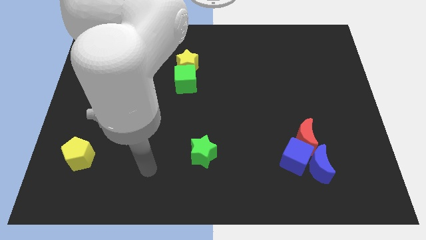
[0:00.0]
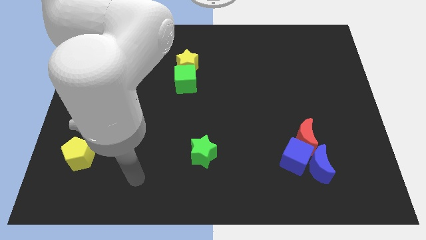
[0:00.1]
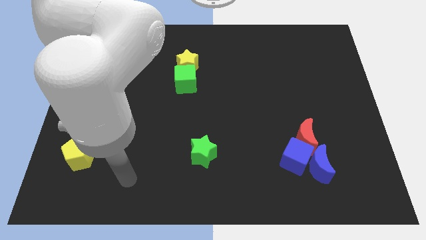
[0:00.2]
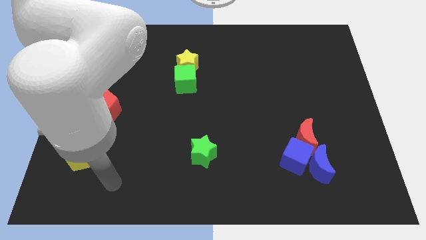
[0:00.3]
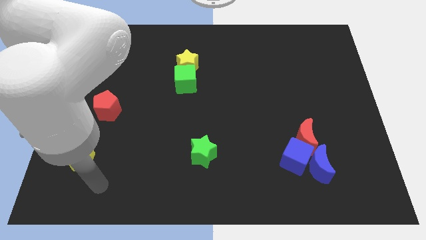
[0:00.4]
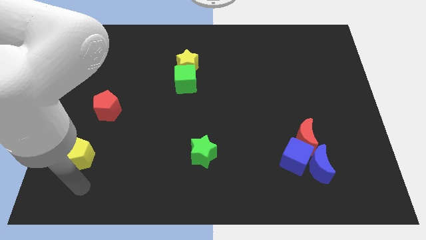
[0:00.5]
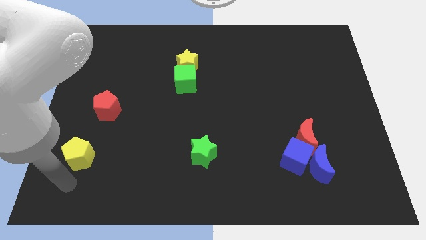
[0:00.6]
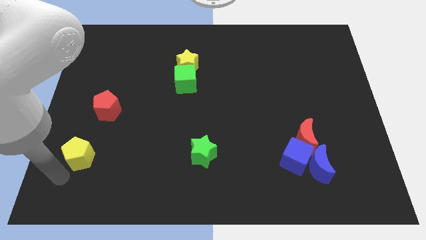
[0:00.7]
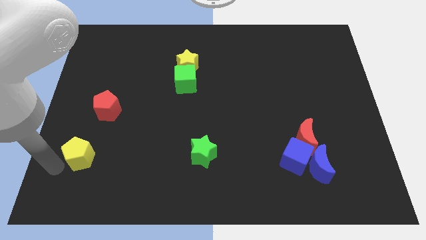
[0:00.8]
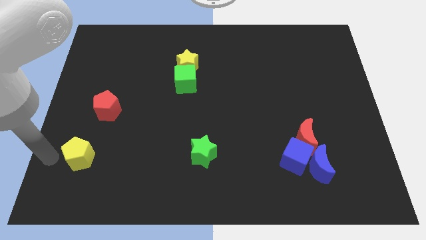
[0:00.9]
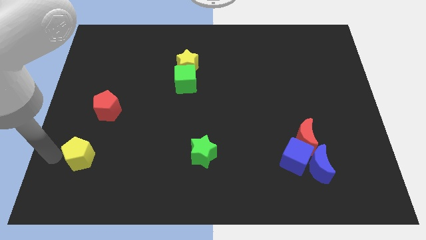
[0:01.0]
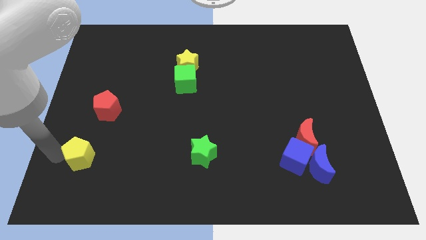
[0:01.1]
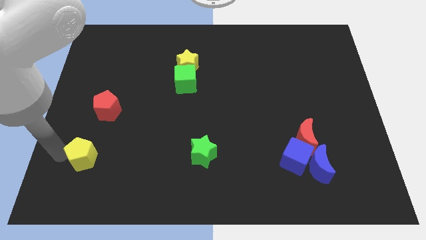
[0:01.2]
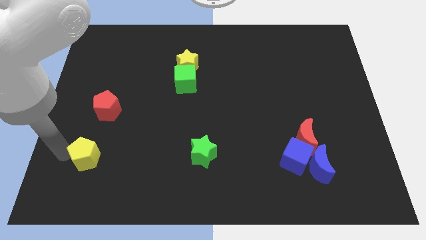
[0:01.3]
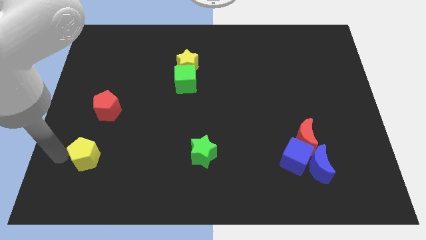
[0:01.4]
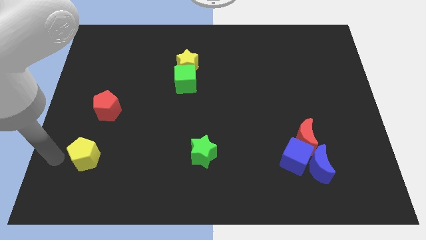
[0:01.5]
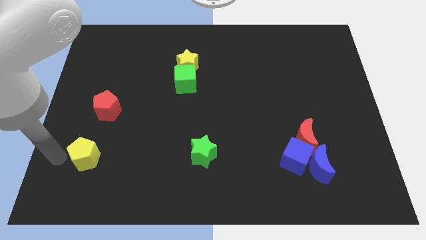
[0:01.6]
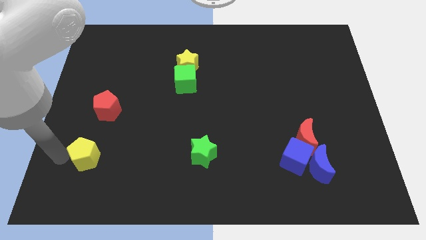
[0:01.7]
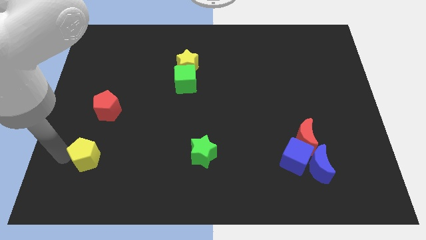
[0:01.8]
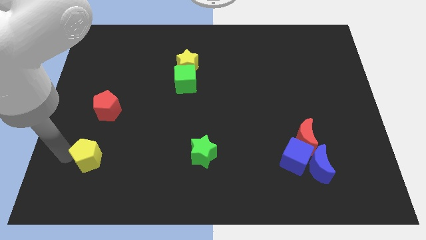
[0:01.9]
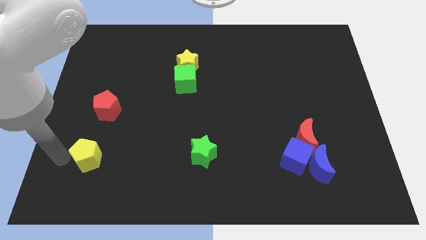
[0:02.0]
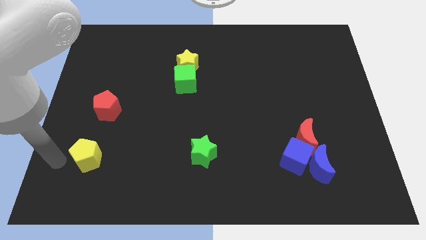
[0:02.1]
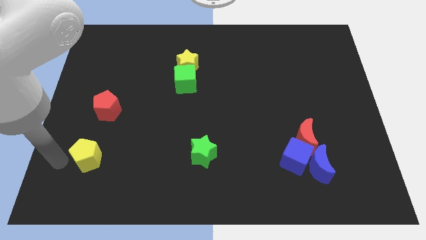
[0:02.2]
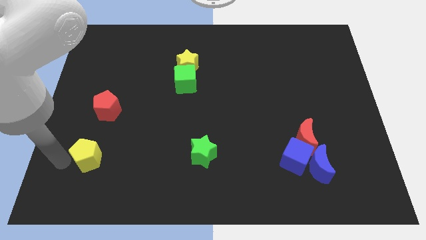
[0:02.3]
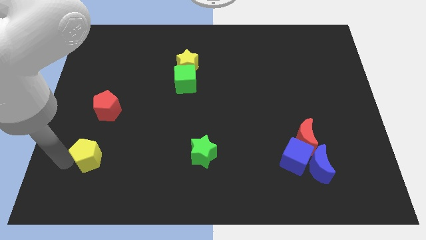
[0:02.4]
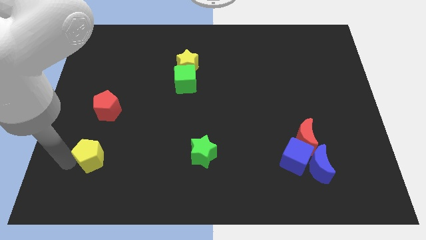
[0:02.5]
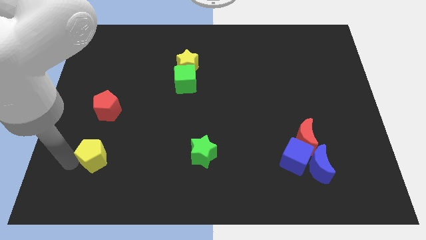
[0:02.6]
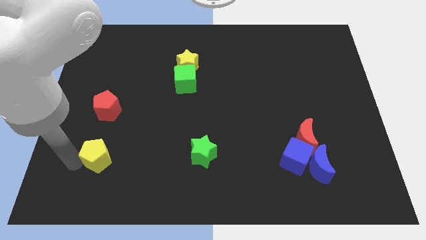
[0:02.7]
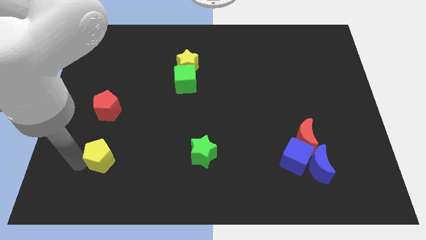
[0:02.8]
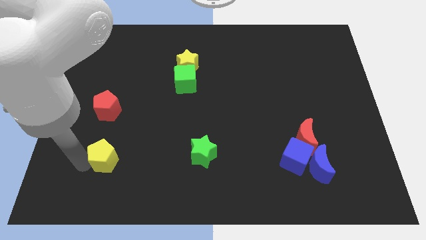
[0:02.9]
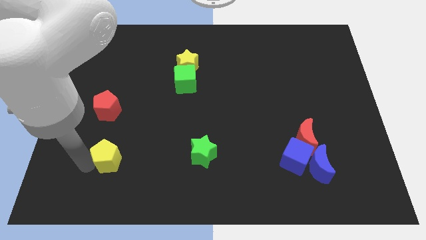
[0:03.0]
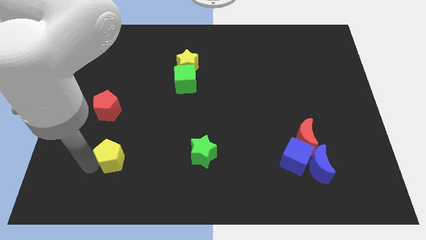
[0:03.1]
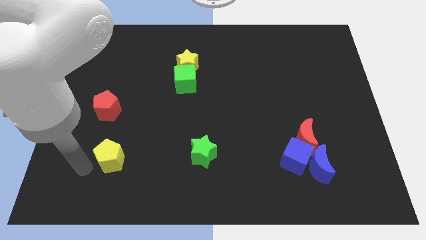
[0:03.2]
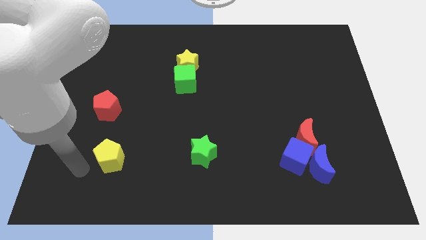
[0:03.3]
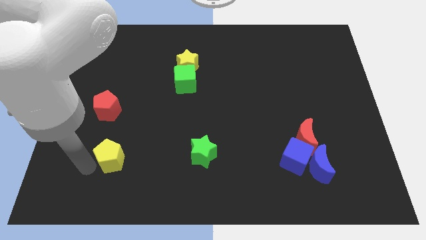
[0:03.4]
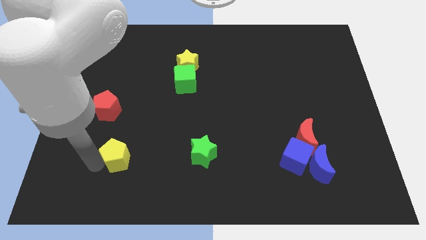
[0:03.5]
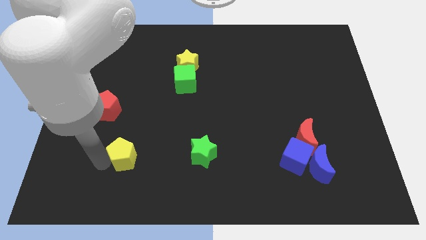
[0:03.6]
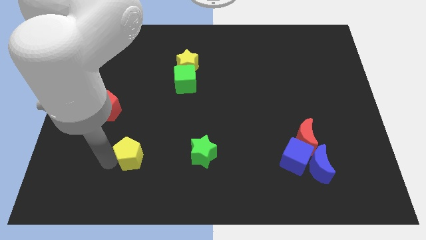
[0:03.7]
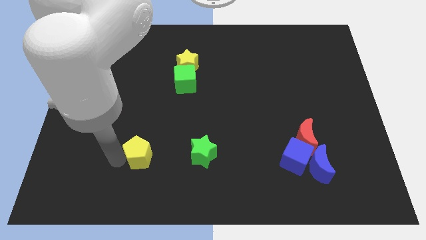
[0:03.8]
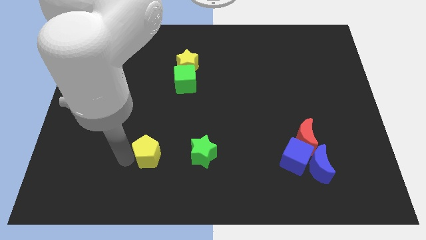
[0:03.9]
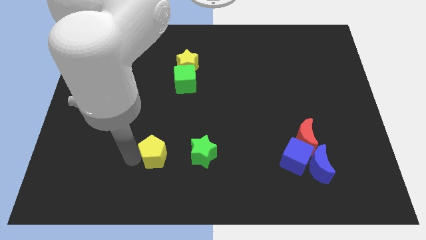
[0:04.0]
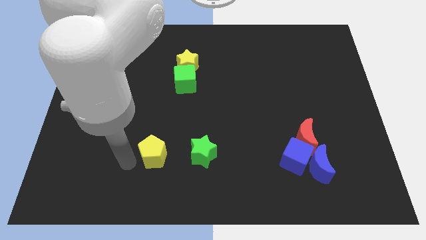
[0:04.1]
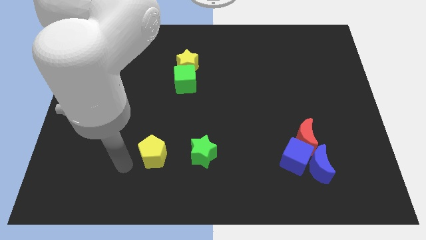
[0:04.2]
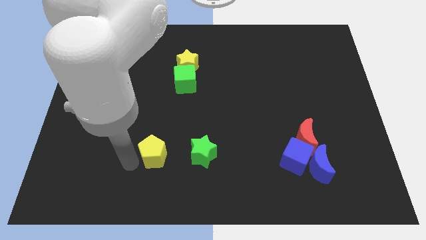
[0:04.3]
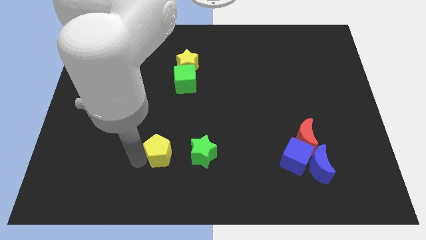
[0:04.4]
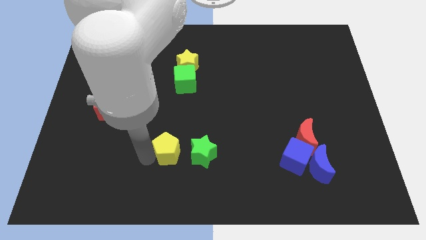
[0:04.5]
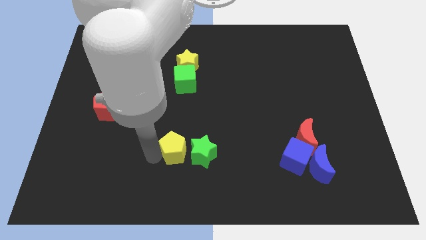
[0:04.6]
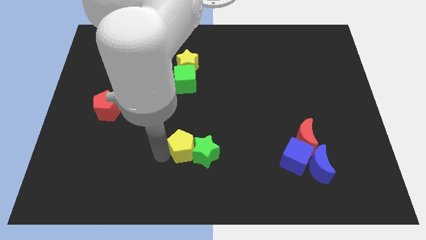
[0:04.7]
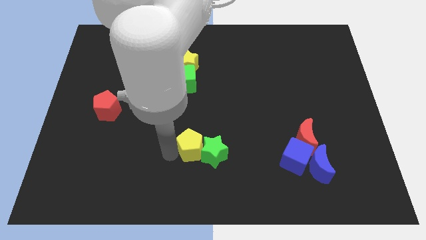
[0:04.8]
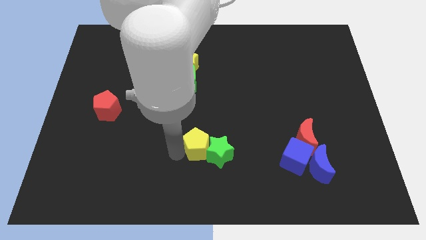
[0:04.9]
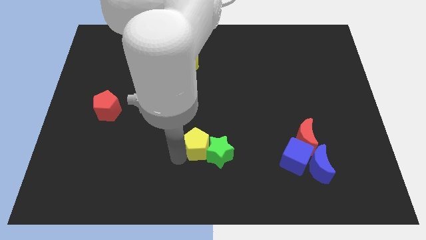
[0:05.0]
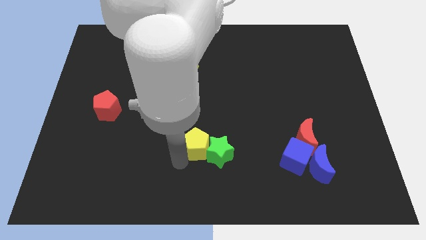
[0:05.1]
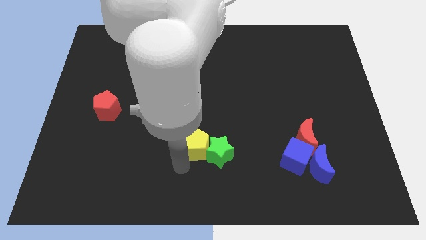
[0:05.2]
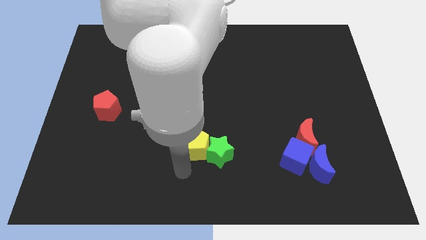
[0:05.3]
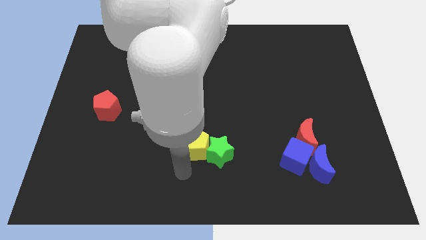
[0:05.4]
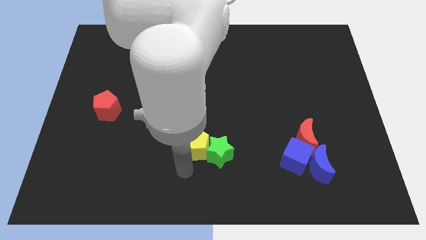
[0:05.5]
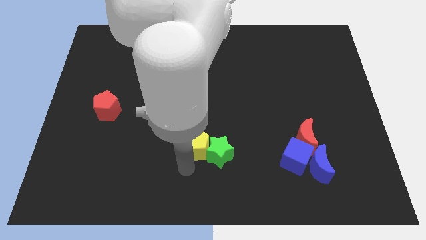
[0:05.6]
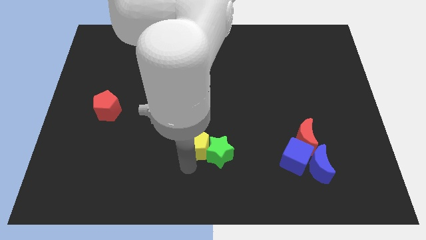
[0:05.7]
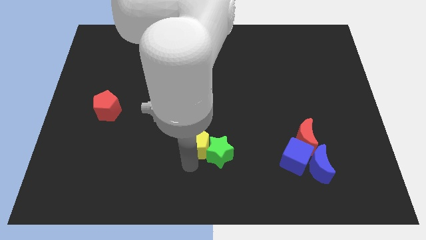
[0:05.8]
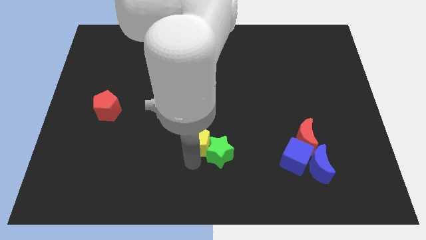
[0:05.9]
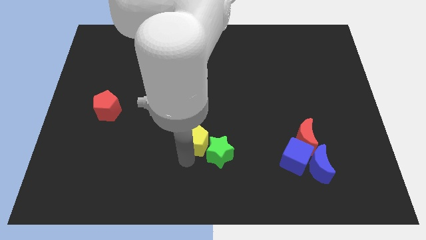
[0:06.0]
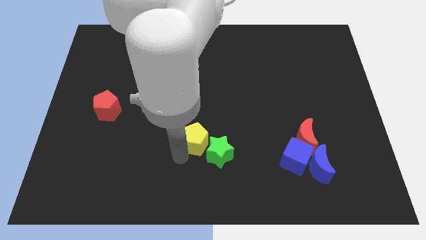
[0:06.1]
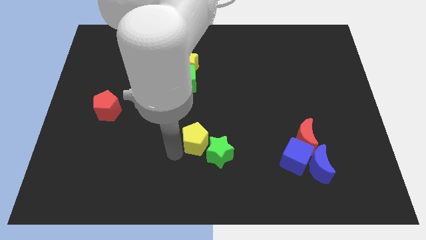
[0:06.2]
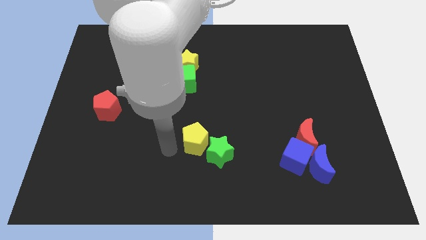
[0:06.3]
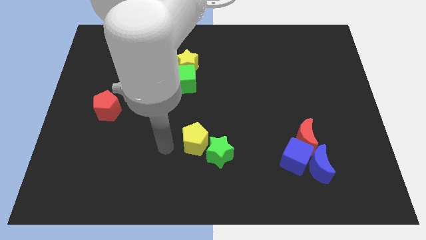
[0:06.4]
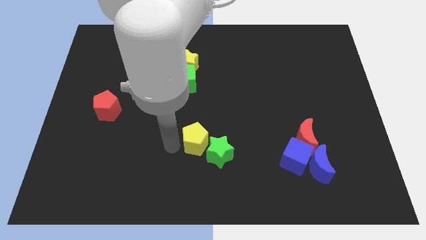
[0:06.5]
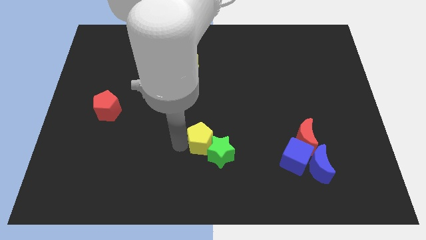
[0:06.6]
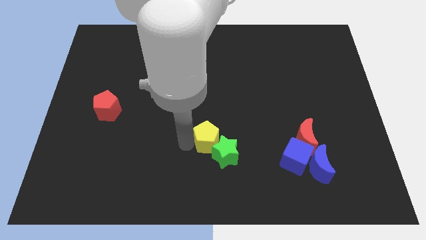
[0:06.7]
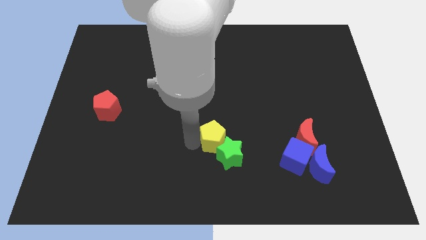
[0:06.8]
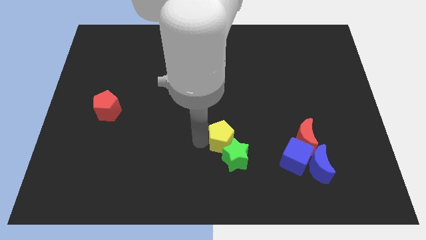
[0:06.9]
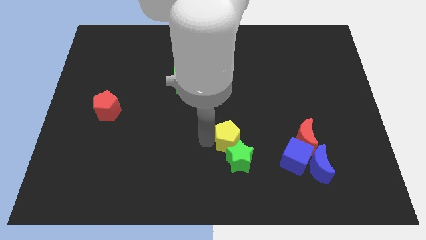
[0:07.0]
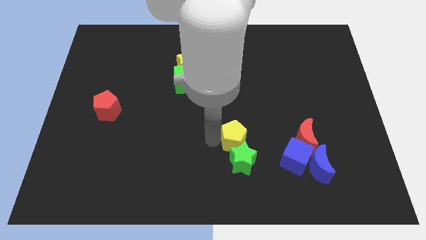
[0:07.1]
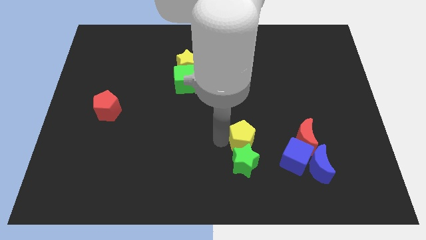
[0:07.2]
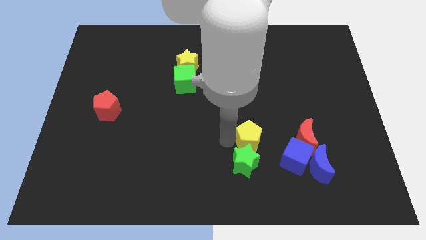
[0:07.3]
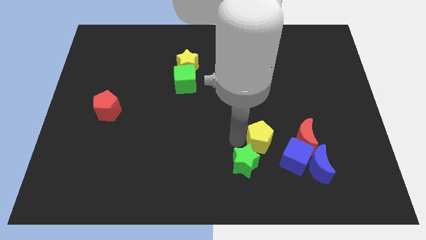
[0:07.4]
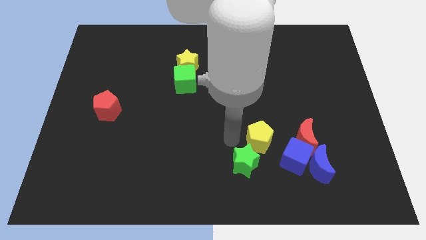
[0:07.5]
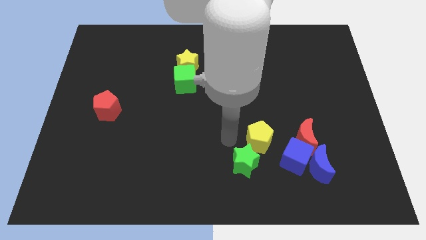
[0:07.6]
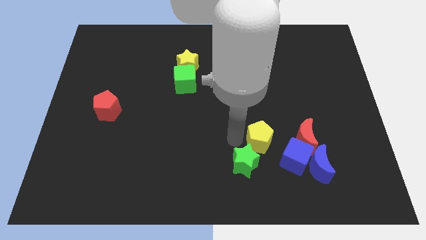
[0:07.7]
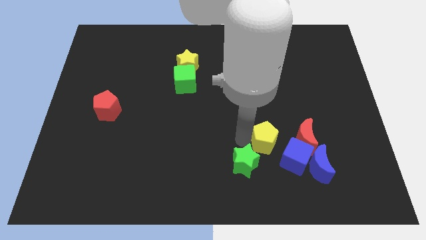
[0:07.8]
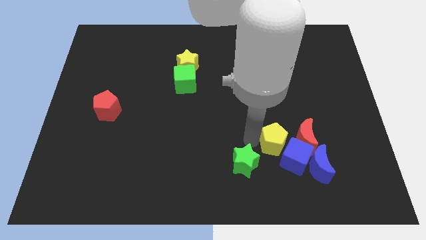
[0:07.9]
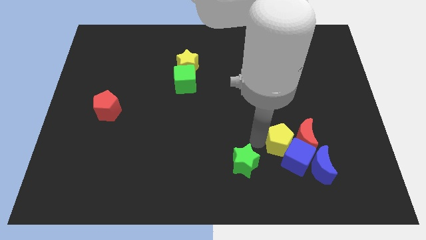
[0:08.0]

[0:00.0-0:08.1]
push the yellow pentagon close to the red moon
